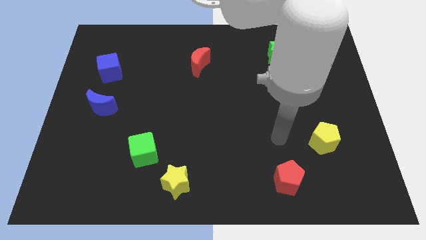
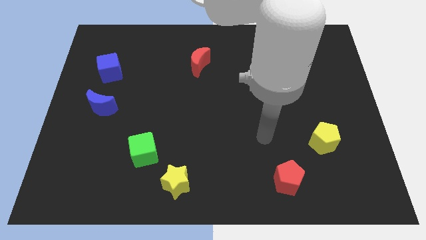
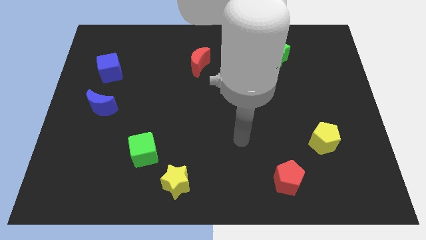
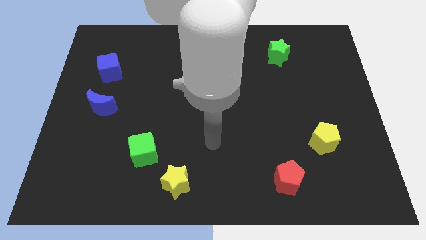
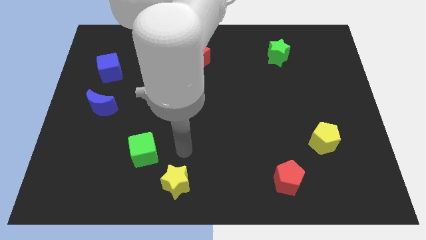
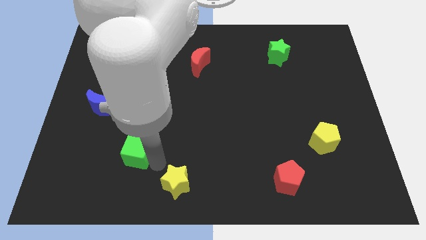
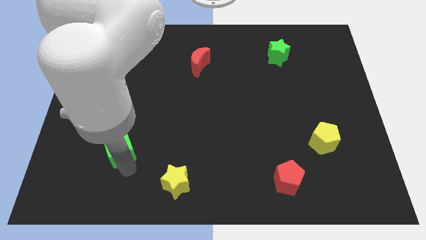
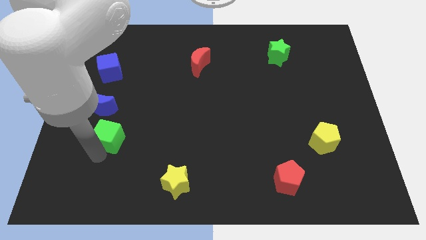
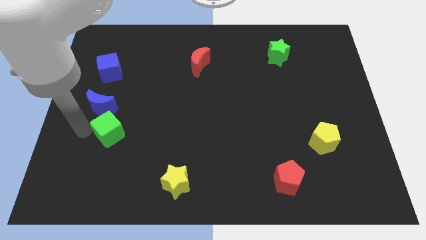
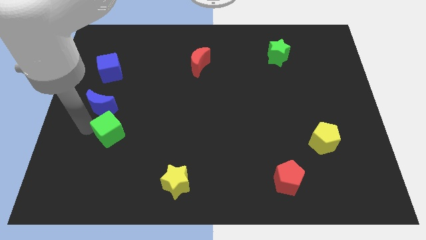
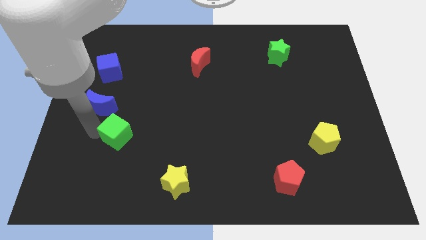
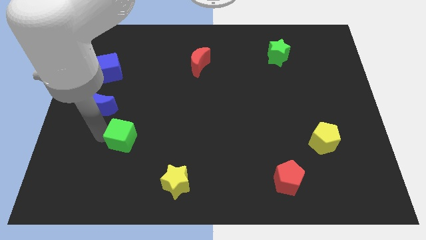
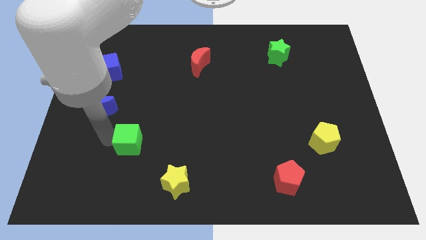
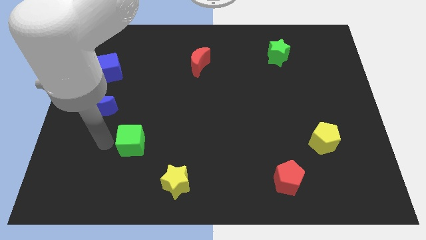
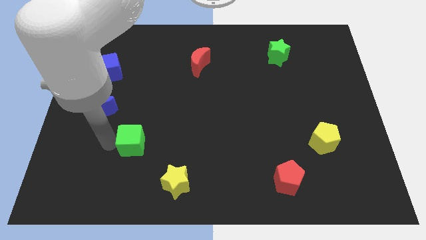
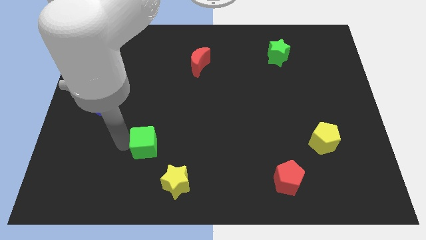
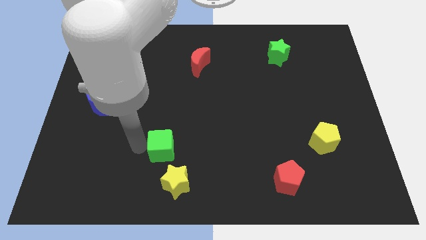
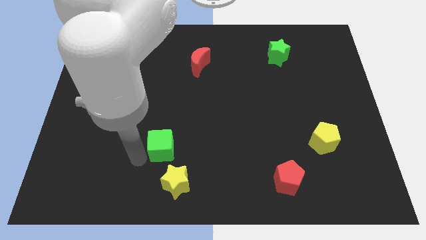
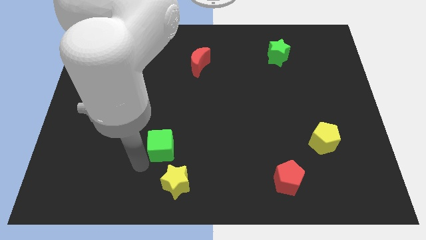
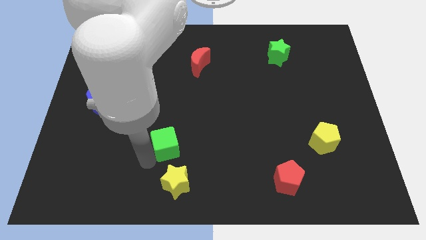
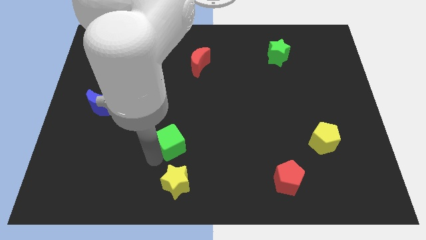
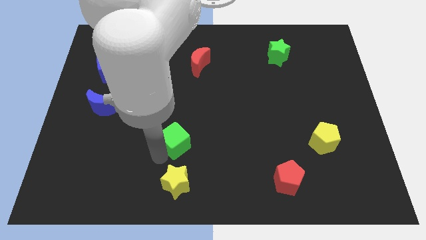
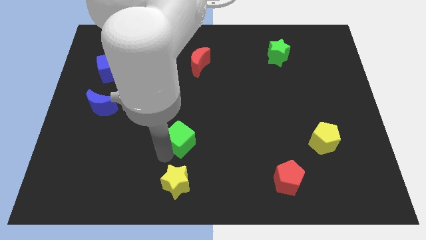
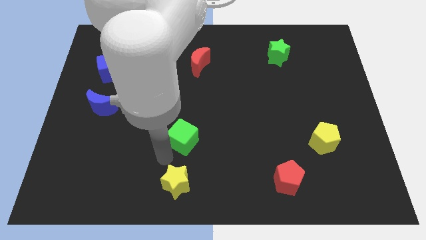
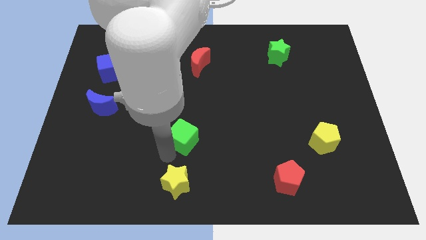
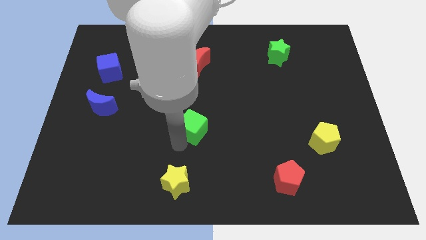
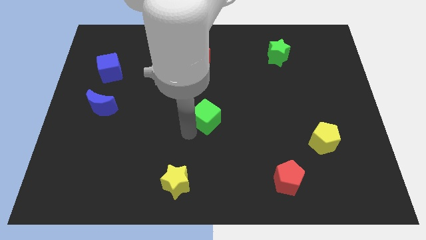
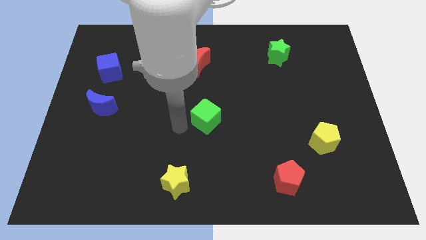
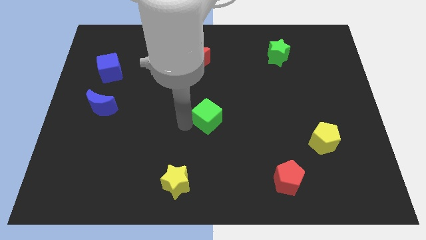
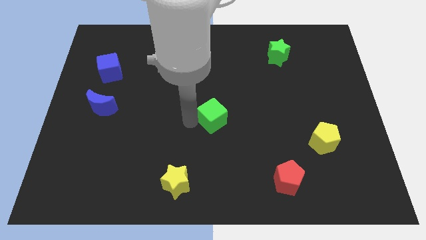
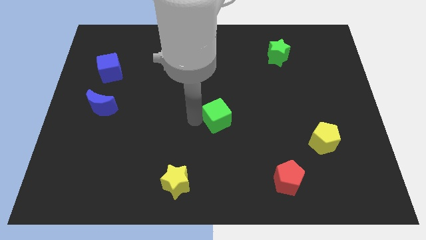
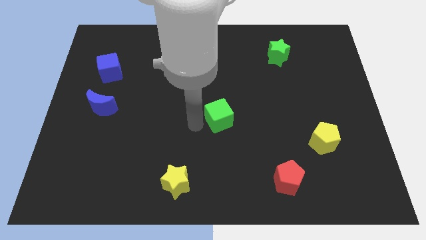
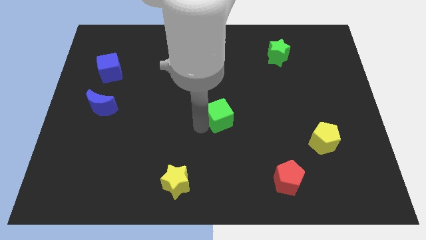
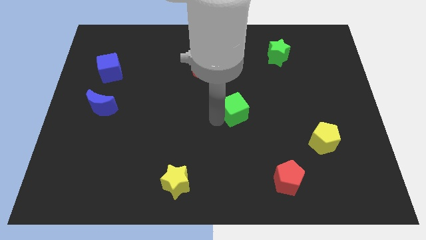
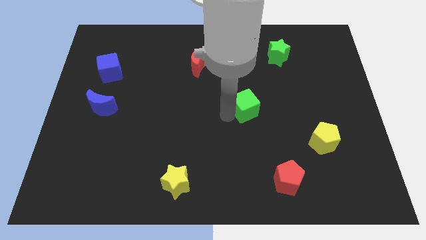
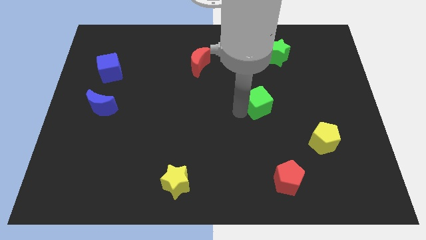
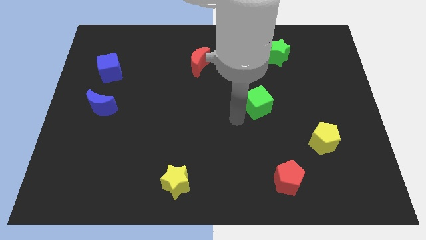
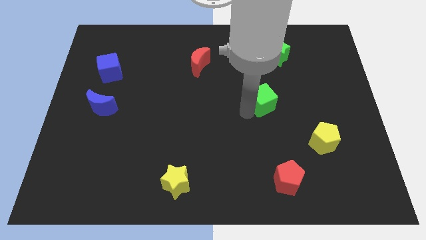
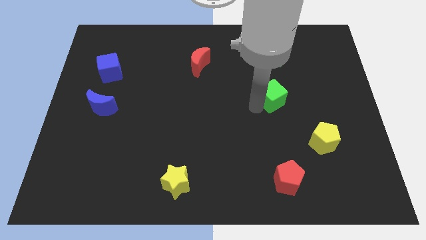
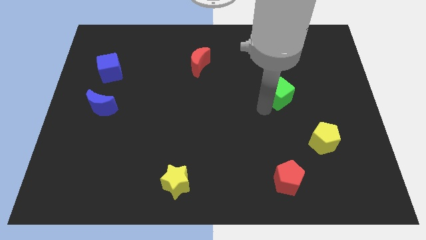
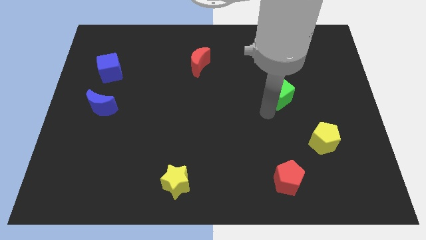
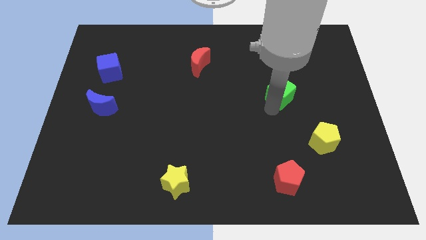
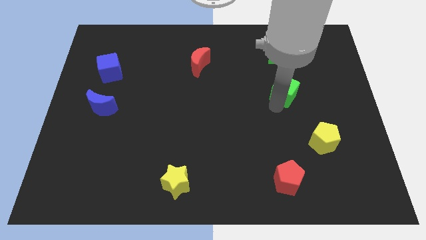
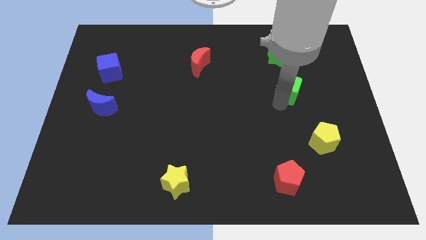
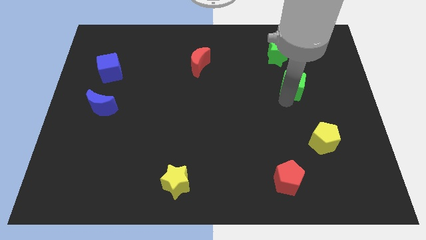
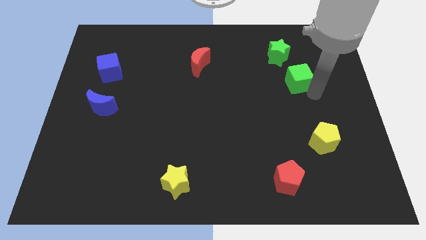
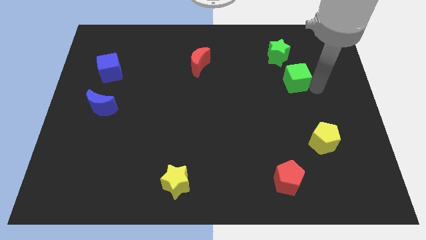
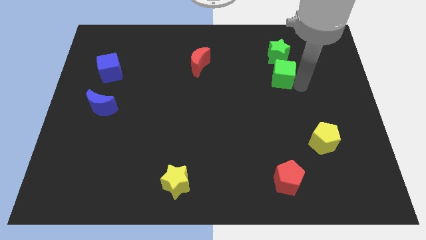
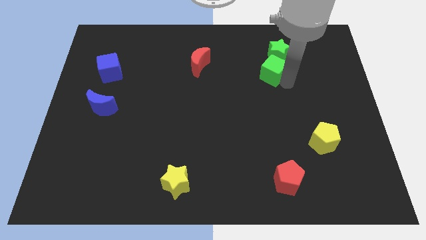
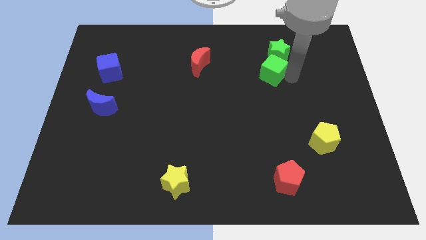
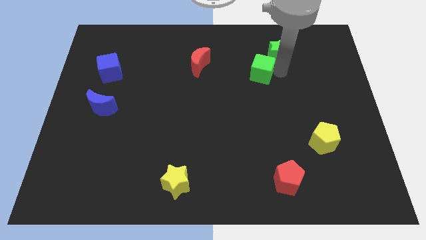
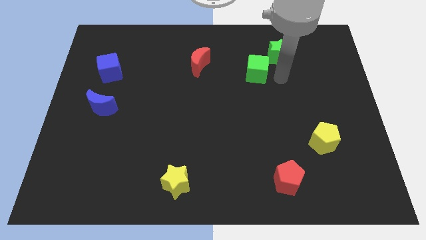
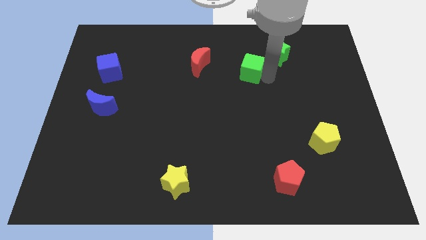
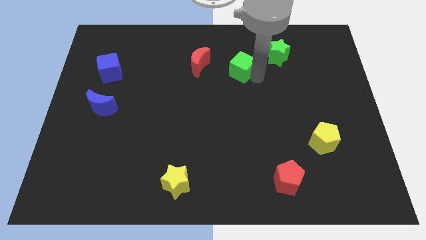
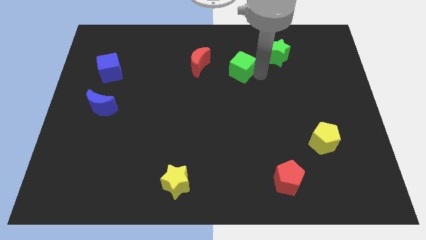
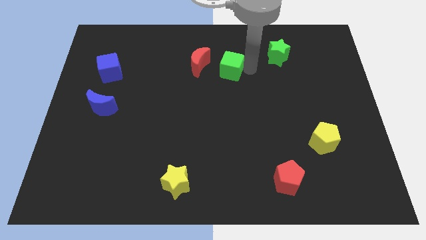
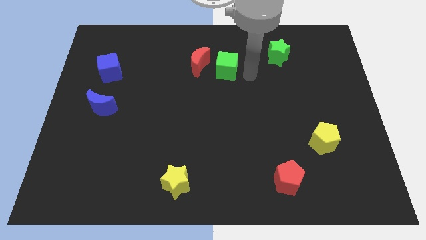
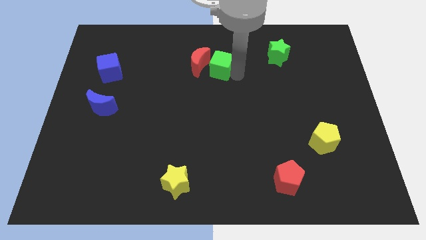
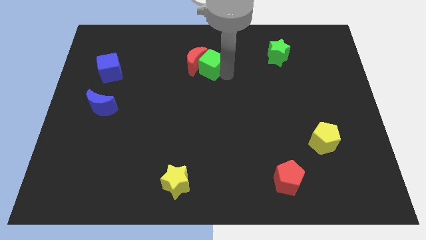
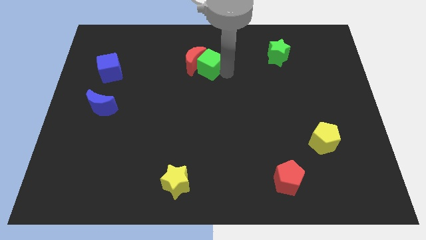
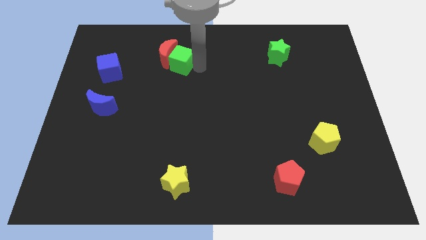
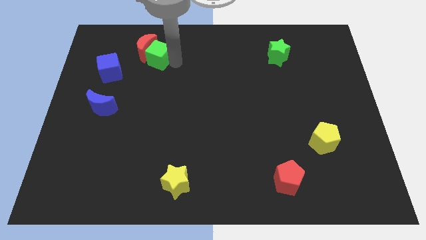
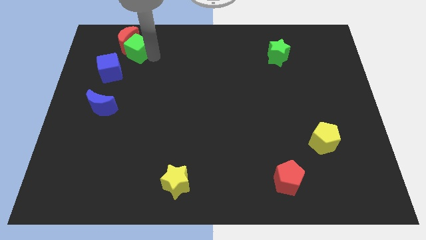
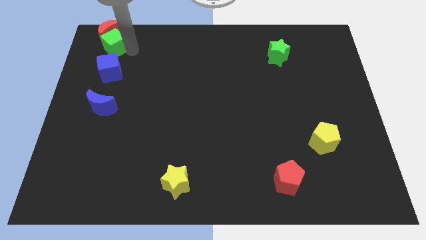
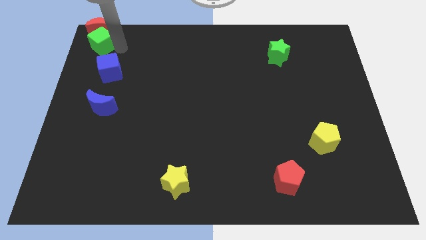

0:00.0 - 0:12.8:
slide the green cube to the top left of the board
